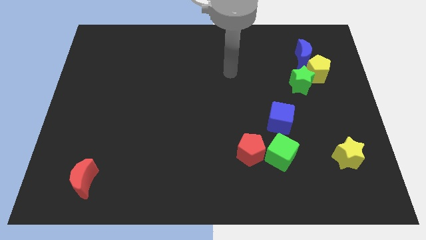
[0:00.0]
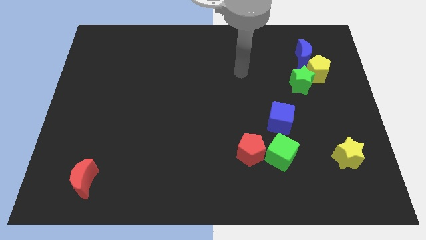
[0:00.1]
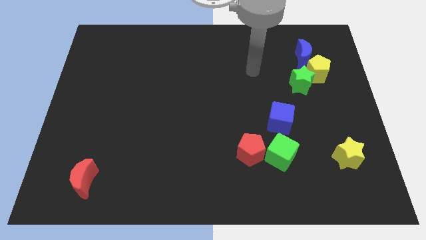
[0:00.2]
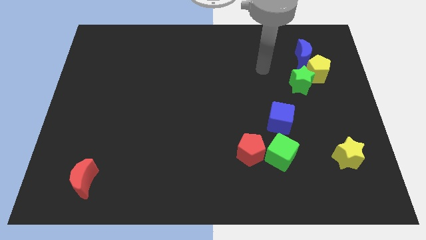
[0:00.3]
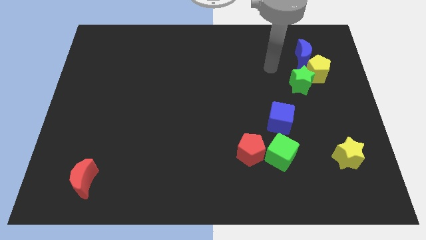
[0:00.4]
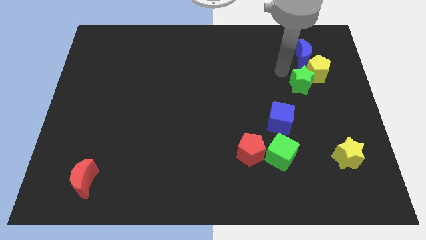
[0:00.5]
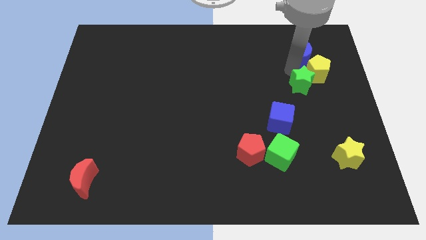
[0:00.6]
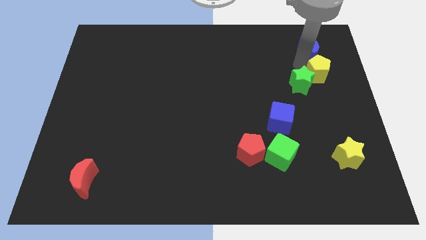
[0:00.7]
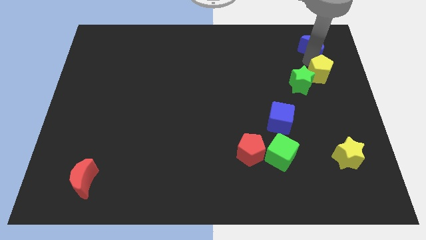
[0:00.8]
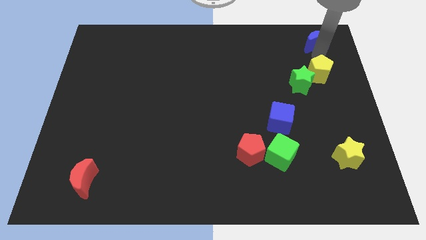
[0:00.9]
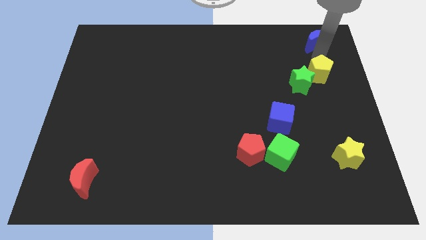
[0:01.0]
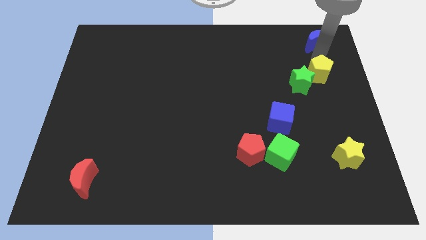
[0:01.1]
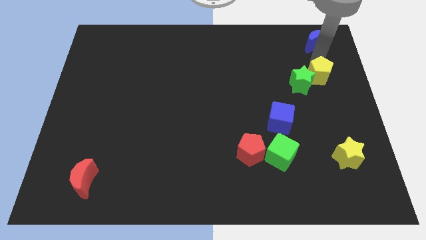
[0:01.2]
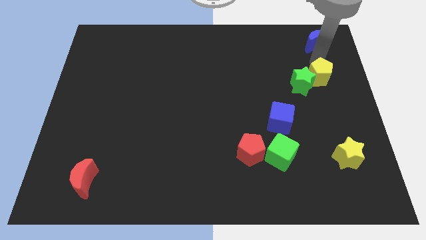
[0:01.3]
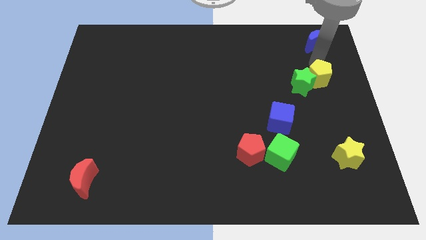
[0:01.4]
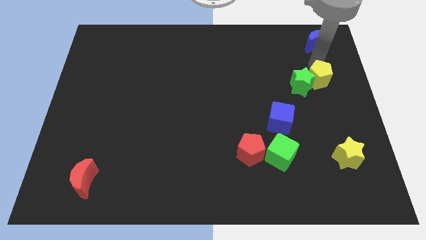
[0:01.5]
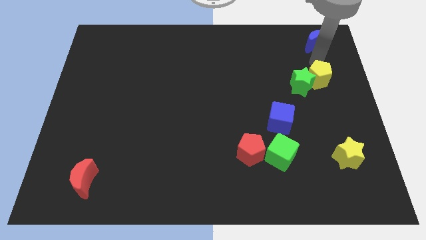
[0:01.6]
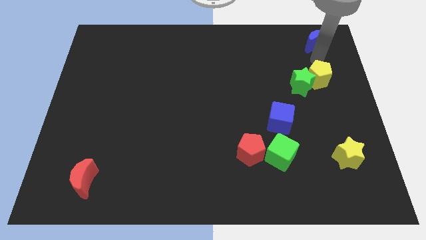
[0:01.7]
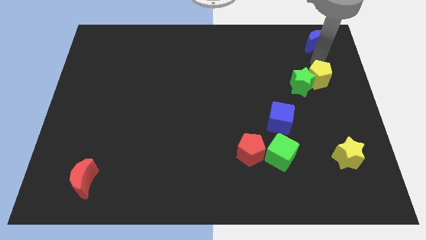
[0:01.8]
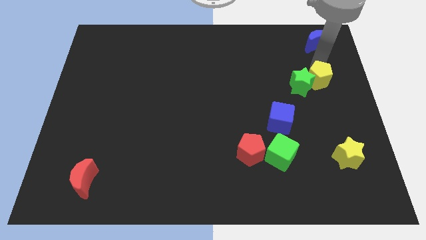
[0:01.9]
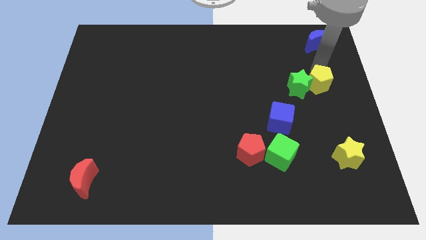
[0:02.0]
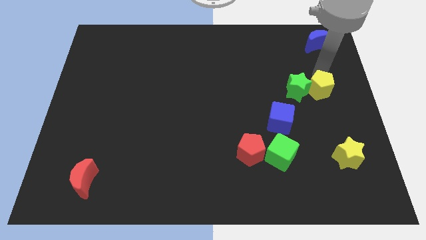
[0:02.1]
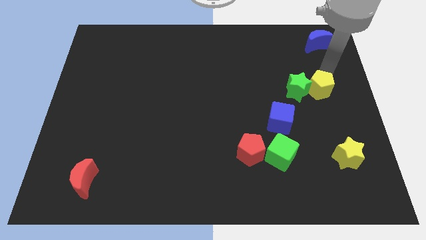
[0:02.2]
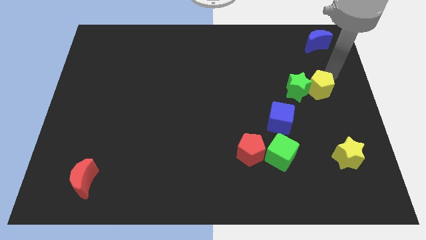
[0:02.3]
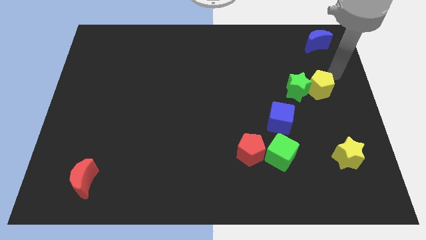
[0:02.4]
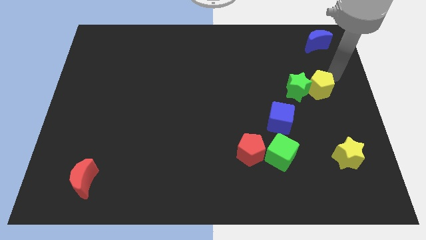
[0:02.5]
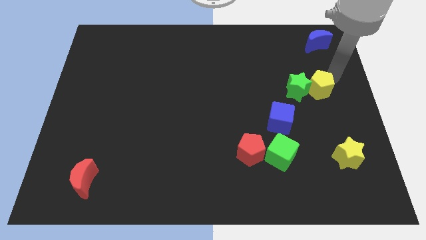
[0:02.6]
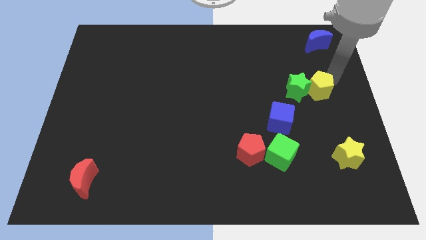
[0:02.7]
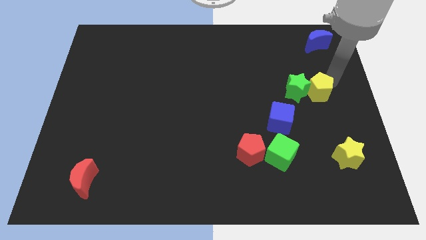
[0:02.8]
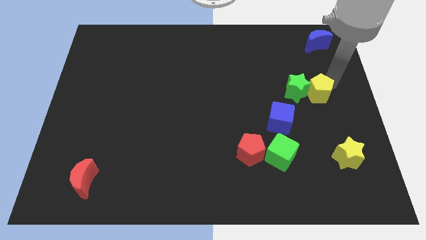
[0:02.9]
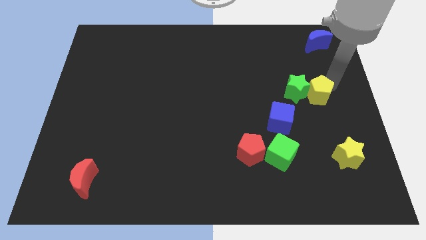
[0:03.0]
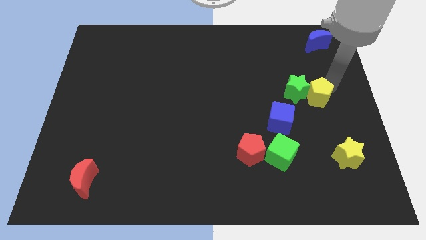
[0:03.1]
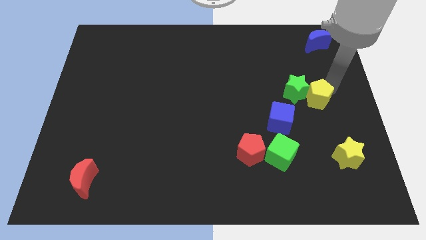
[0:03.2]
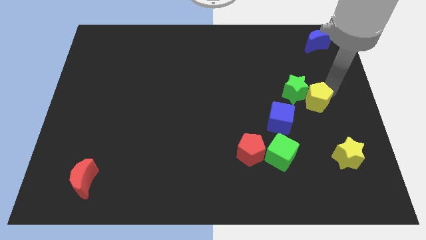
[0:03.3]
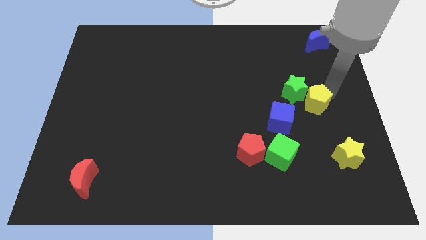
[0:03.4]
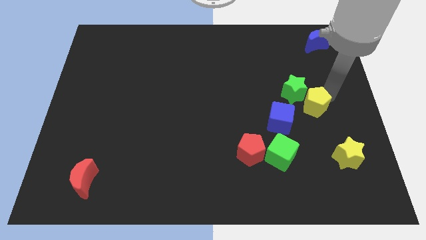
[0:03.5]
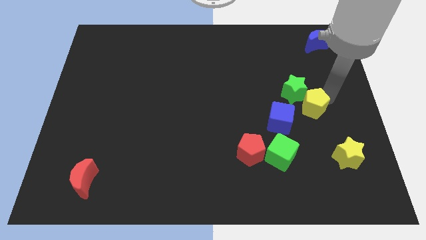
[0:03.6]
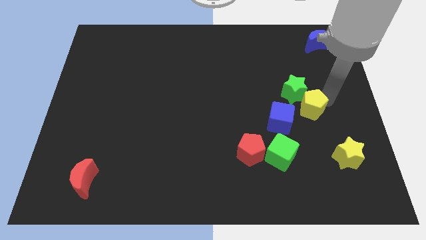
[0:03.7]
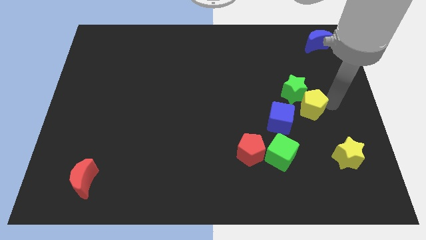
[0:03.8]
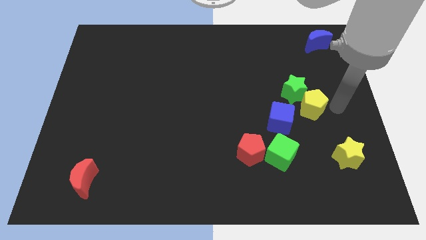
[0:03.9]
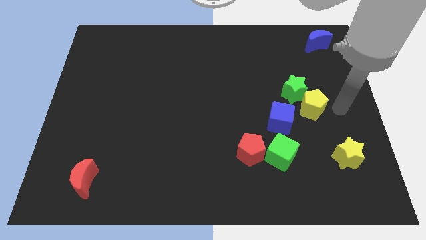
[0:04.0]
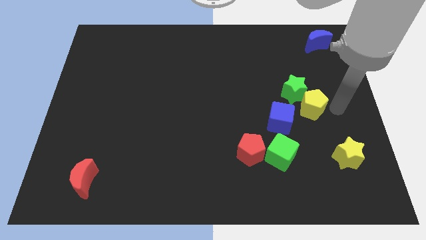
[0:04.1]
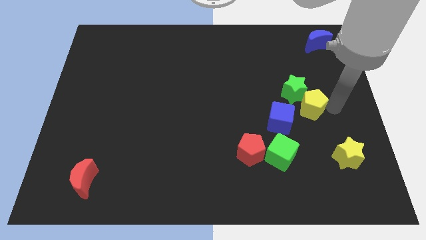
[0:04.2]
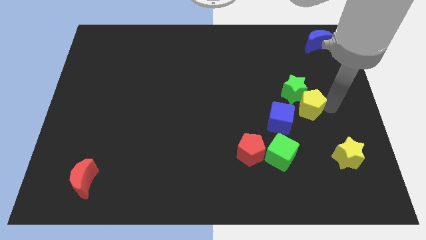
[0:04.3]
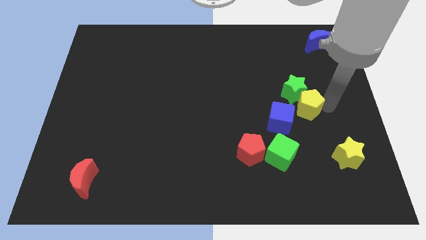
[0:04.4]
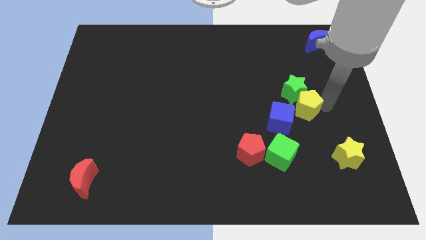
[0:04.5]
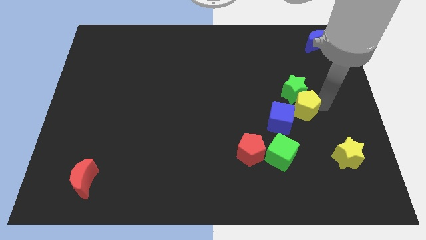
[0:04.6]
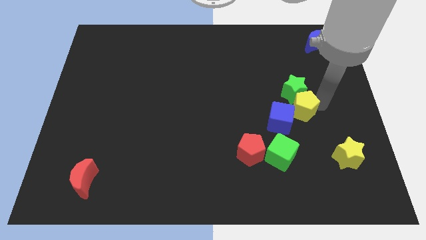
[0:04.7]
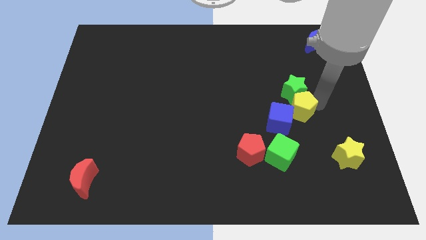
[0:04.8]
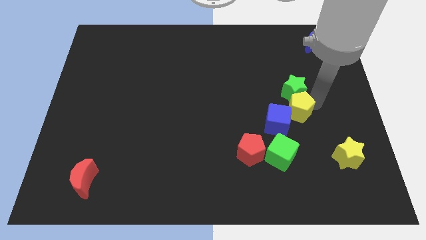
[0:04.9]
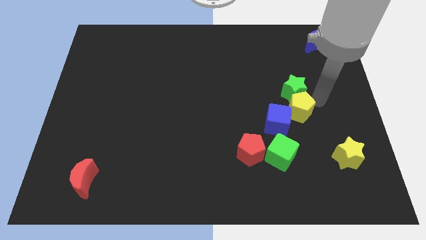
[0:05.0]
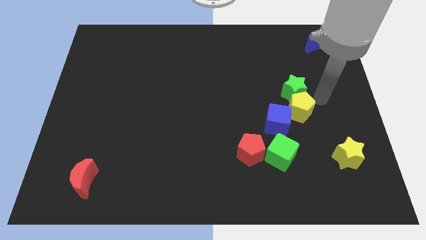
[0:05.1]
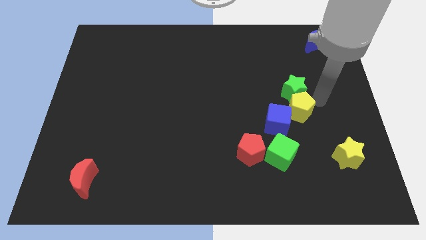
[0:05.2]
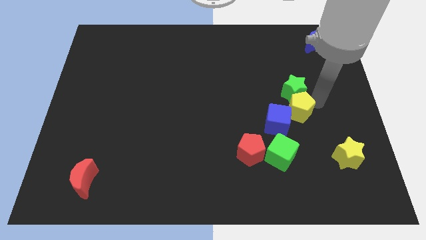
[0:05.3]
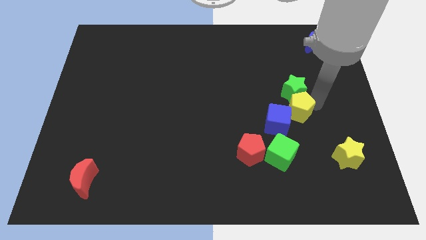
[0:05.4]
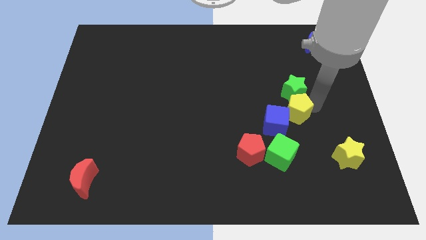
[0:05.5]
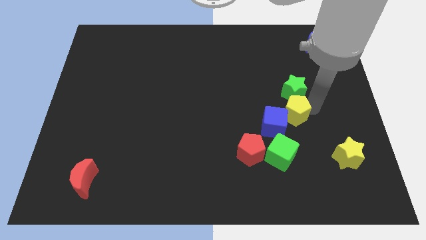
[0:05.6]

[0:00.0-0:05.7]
move the yellow pentagon towards the blue cube
